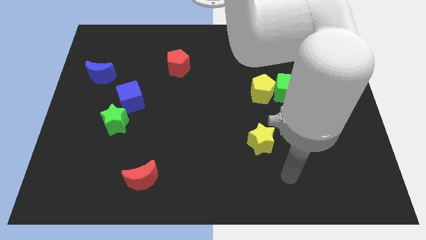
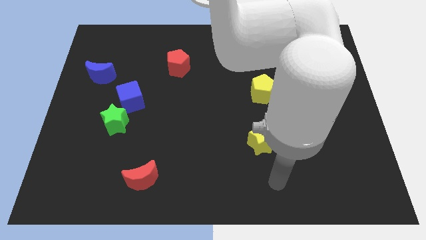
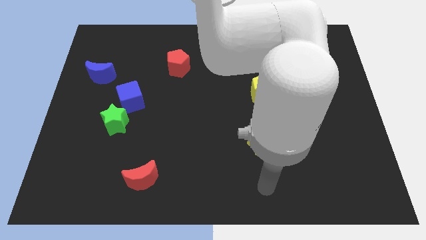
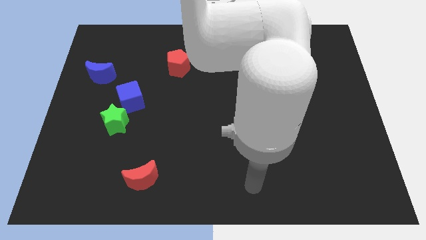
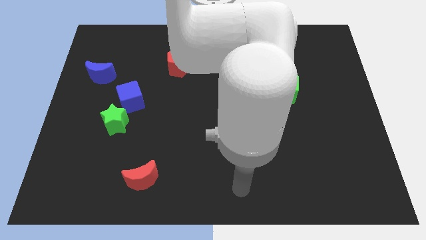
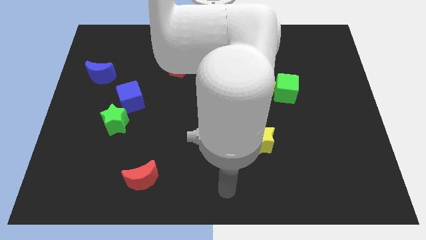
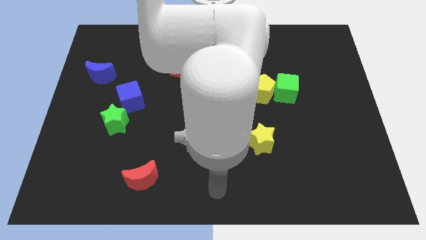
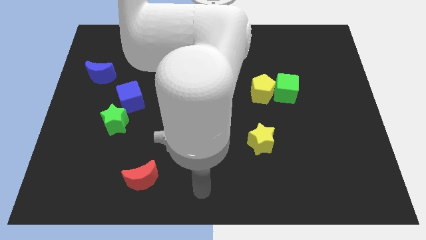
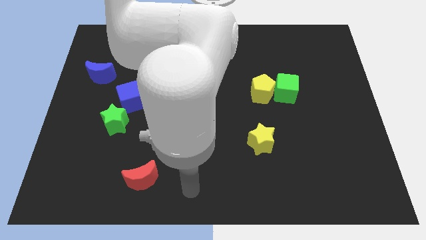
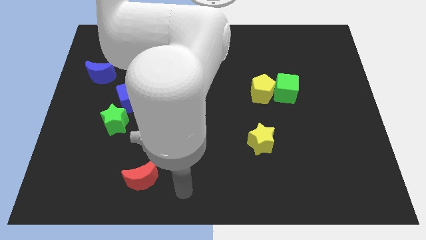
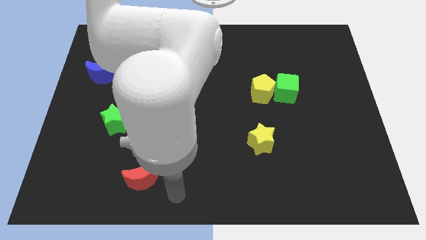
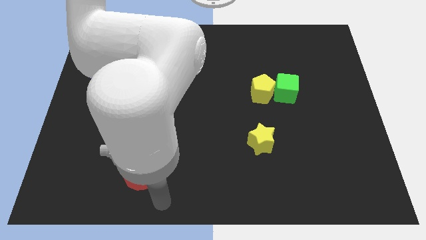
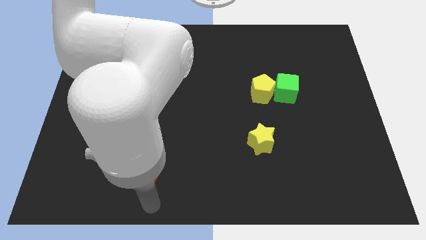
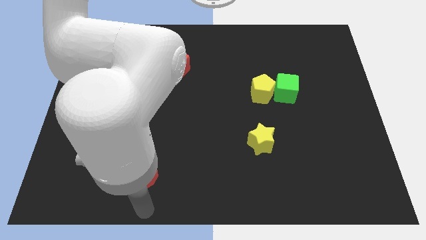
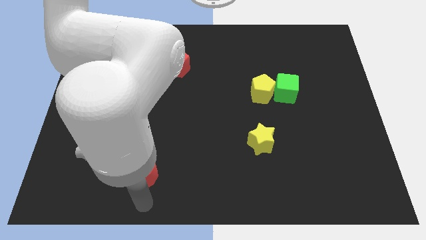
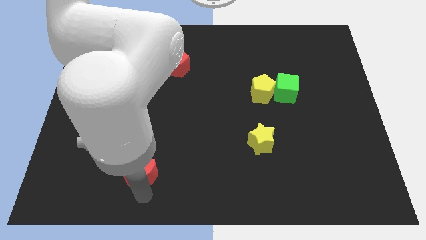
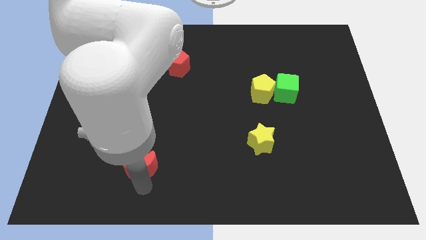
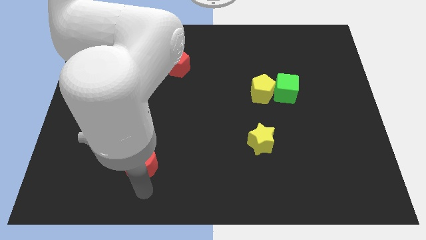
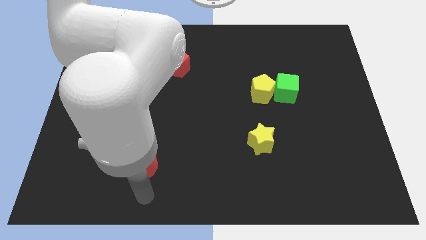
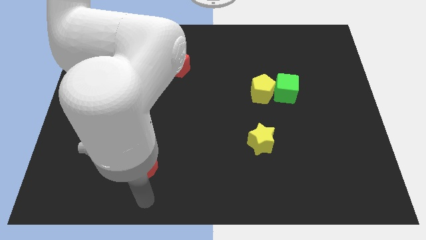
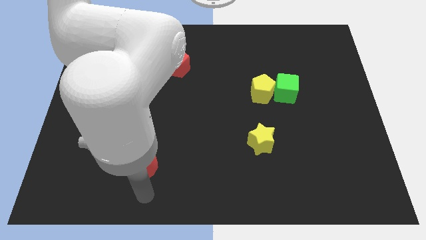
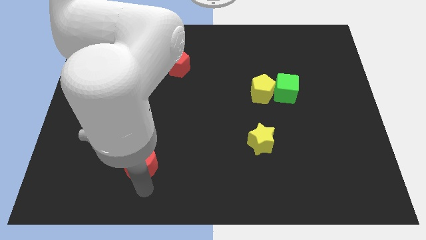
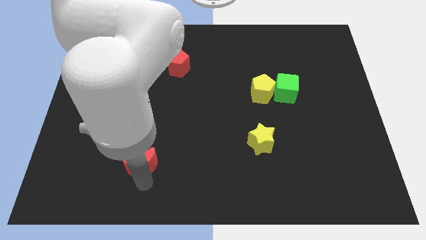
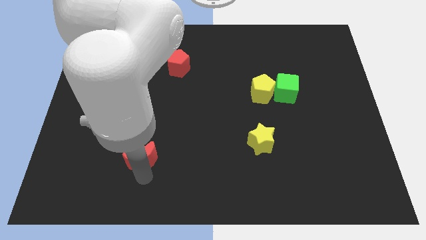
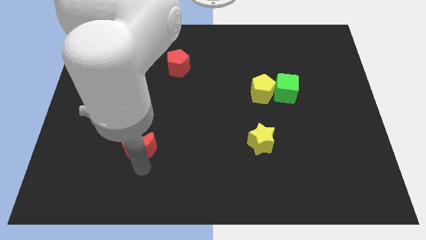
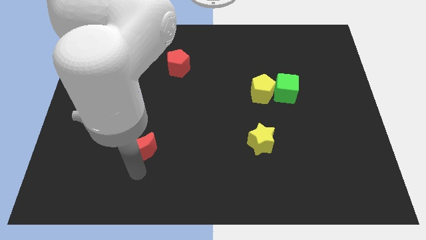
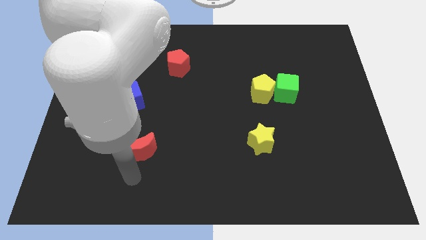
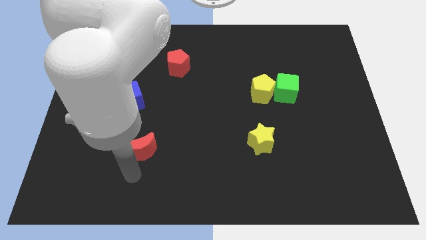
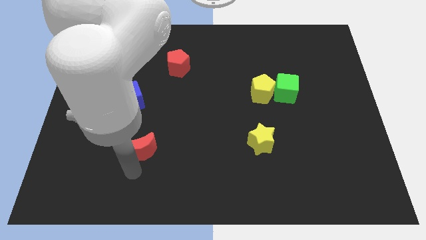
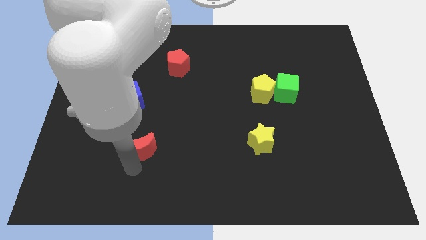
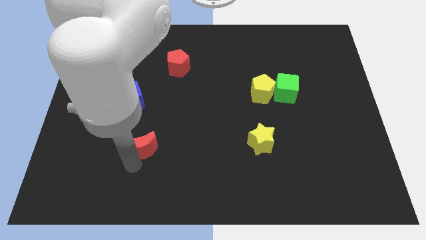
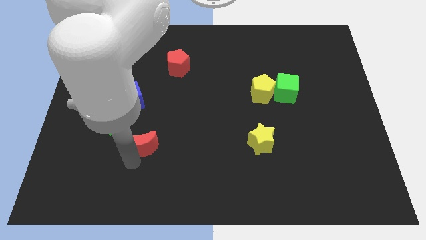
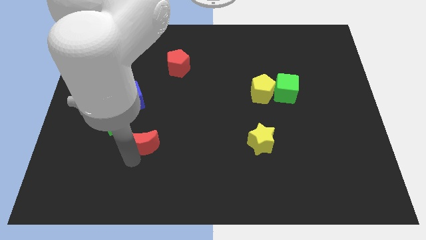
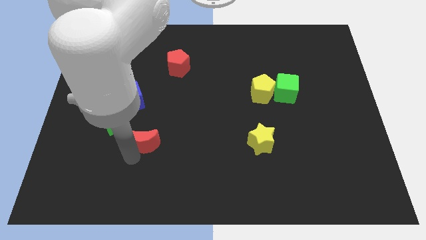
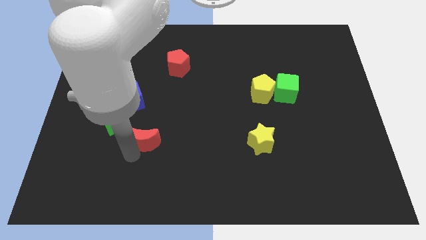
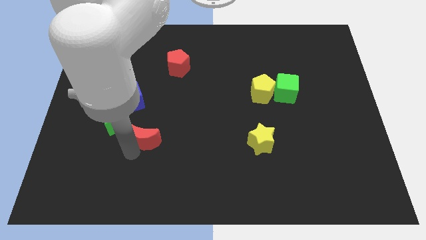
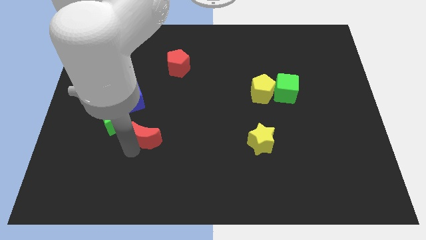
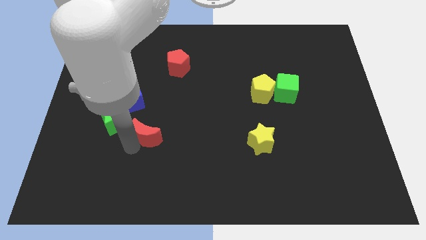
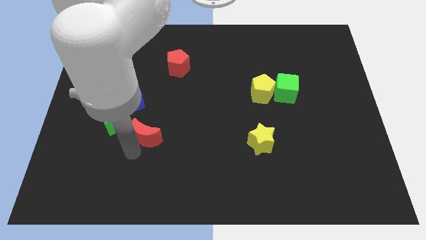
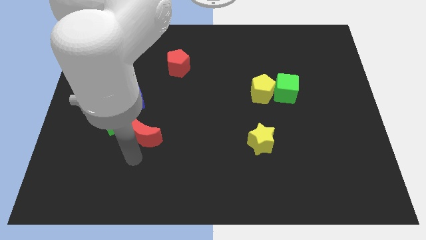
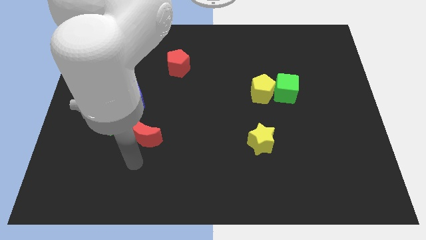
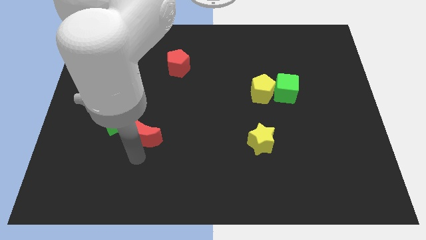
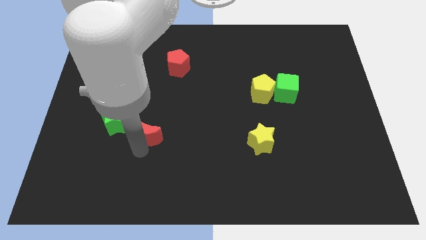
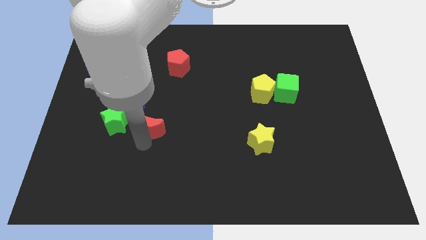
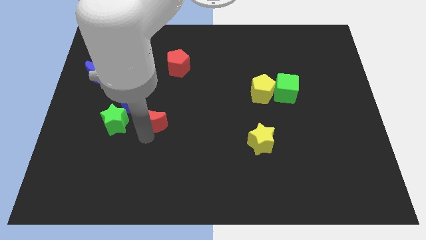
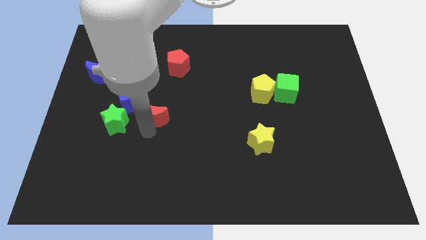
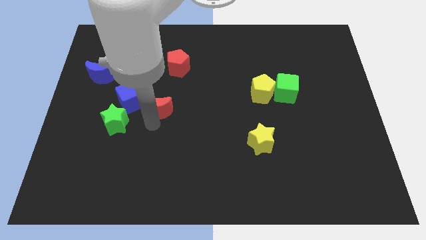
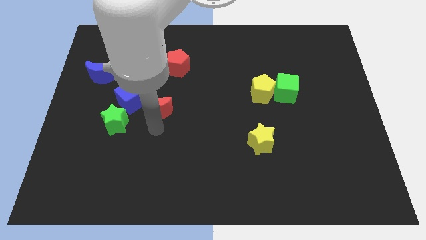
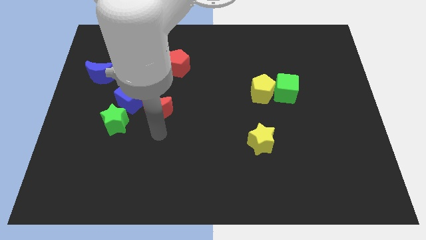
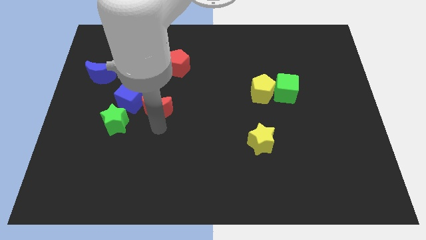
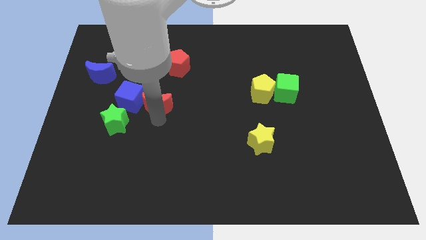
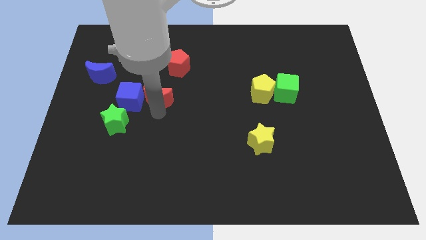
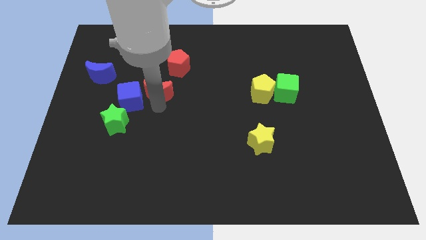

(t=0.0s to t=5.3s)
move the red moon diagonally down and to the left of the red pentagon

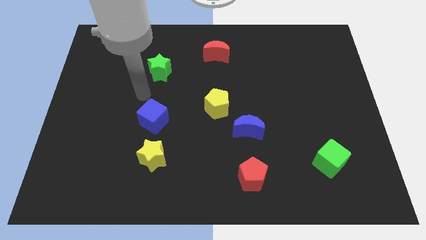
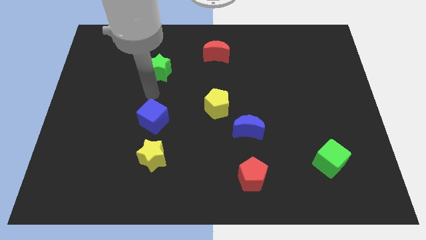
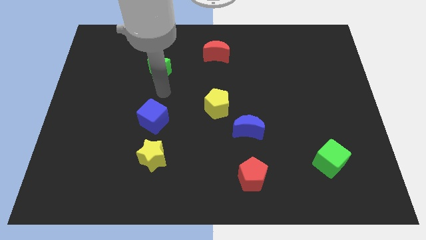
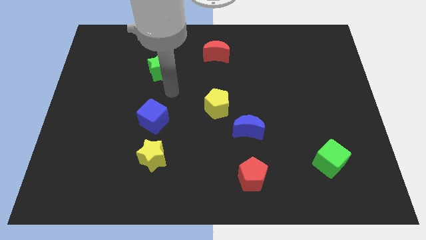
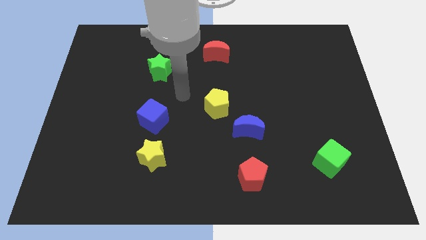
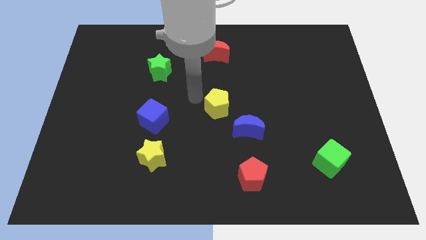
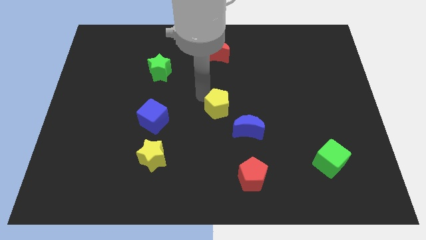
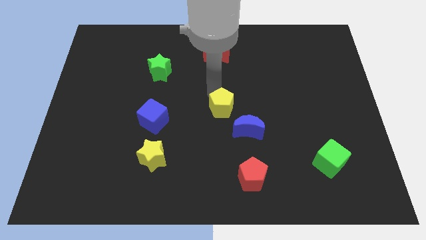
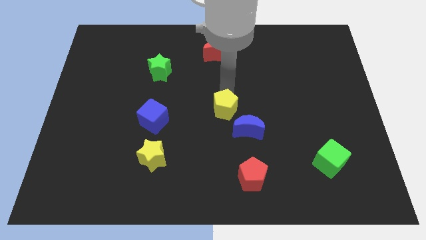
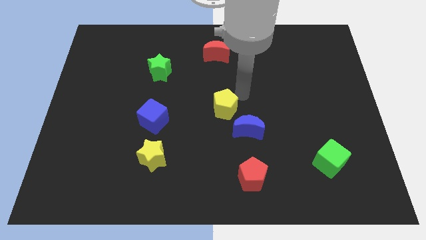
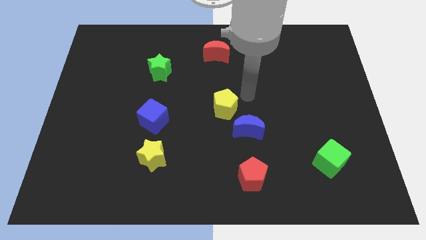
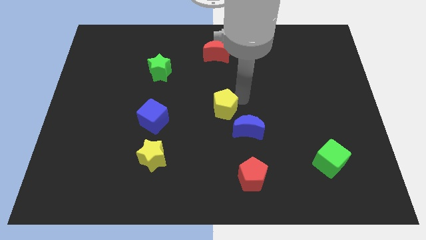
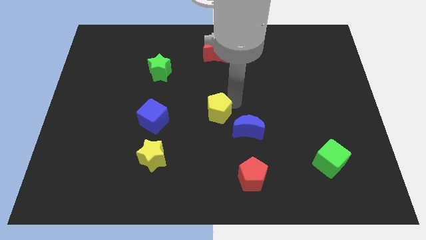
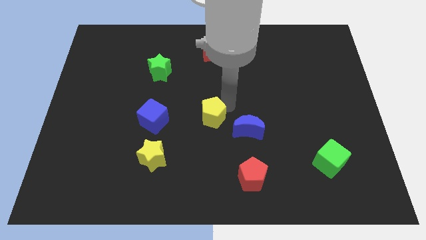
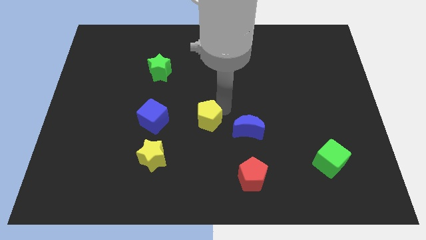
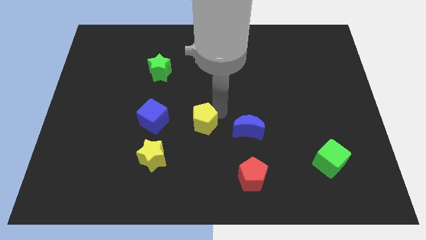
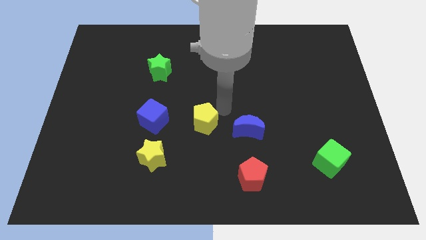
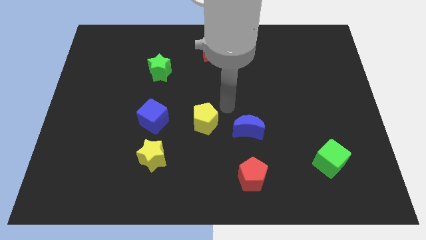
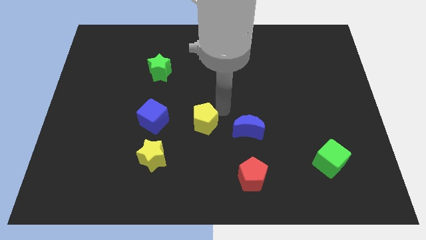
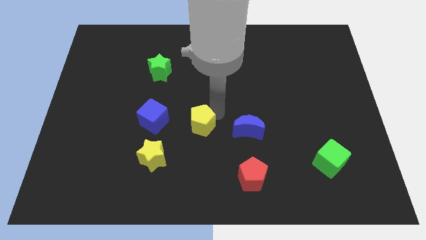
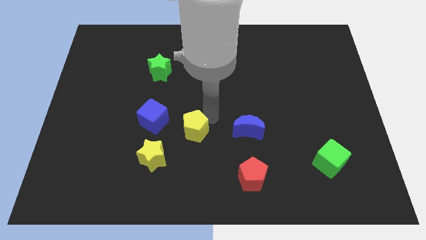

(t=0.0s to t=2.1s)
move the yellow pentagon diagonally up and to the right of the yellow star

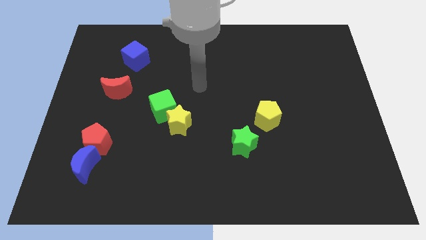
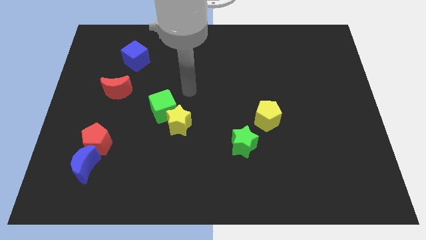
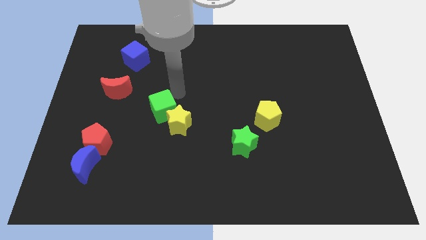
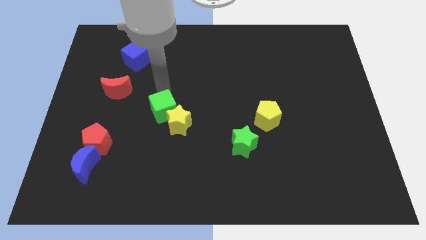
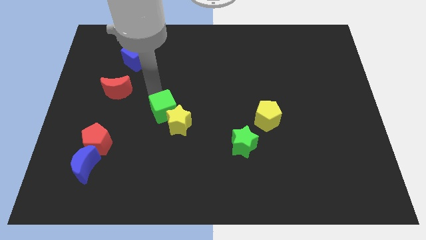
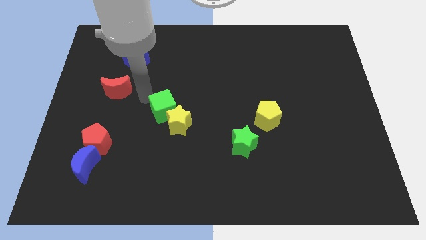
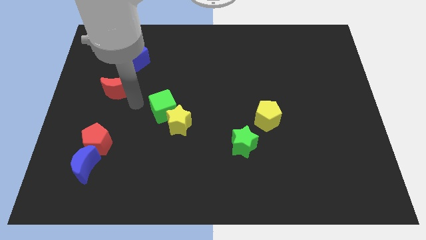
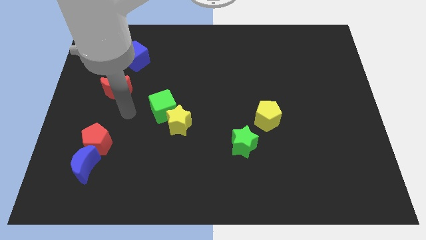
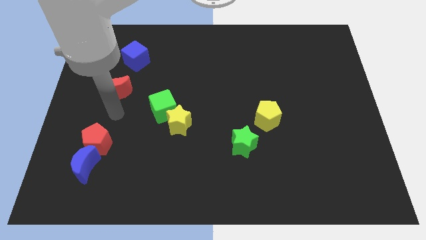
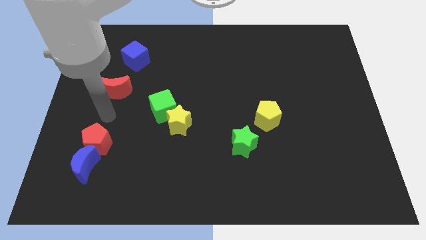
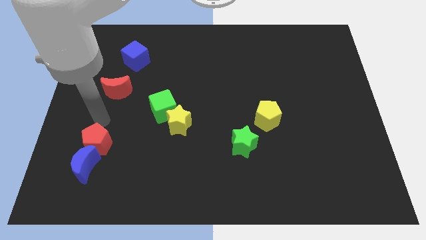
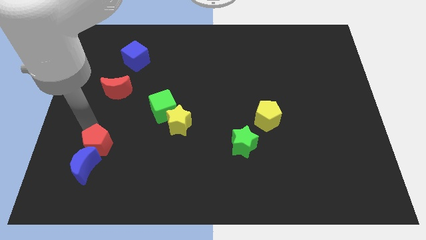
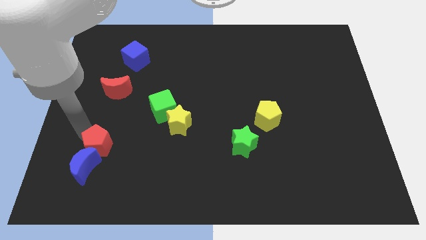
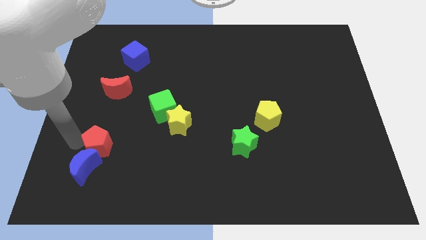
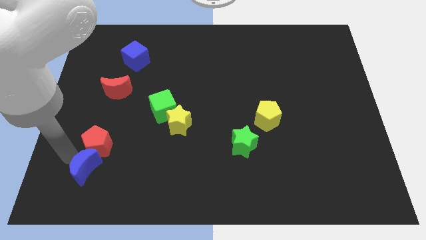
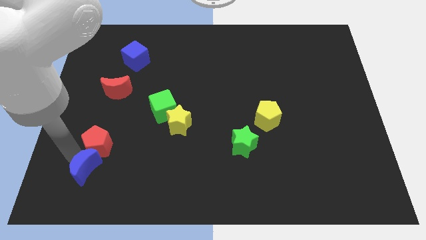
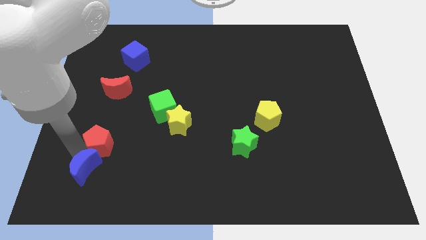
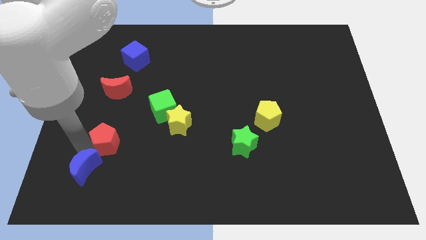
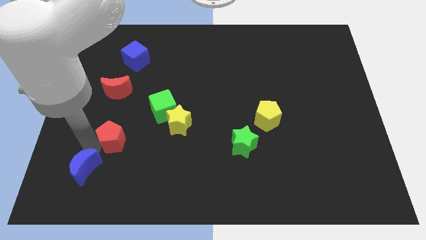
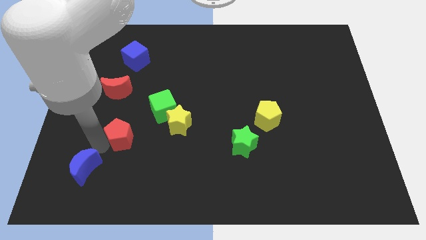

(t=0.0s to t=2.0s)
put the red pentagon to the left of the yellow star
